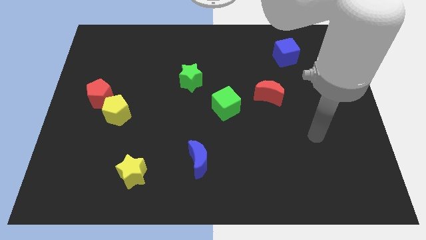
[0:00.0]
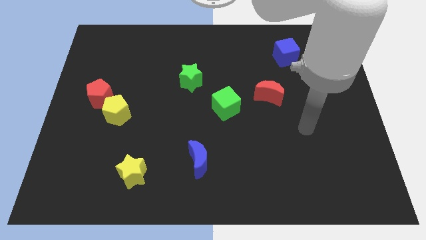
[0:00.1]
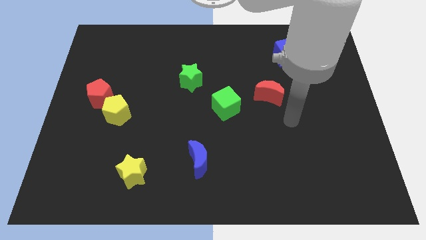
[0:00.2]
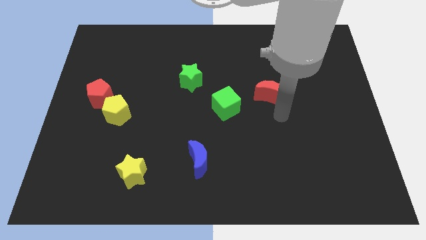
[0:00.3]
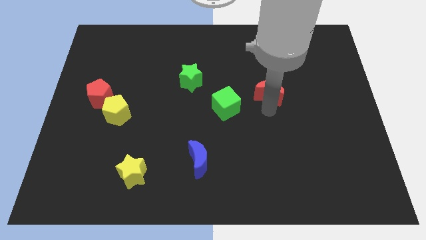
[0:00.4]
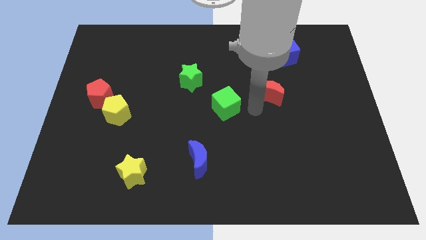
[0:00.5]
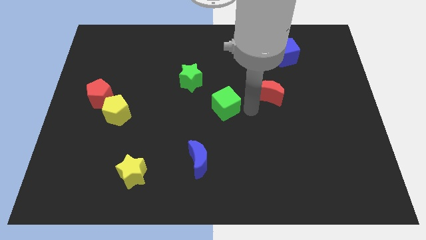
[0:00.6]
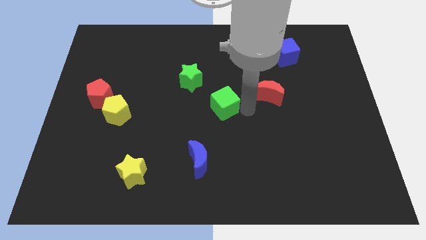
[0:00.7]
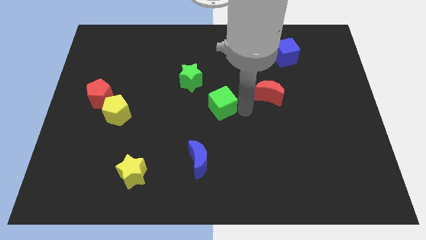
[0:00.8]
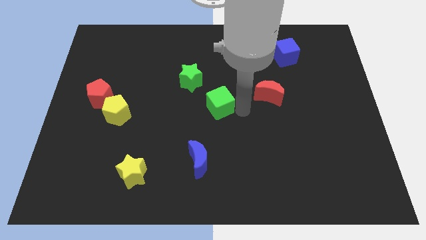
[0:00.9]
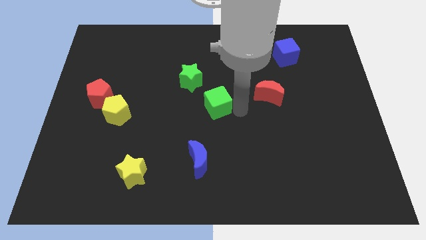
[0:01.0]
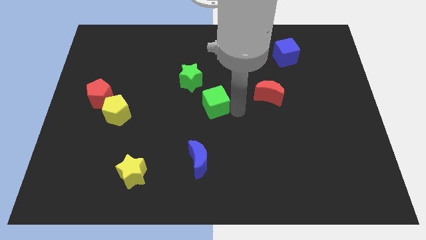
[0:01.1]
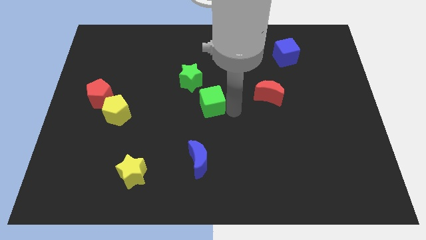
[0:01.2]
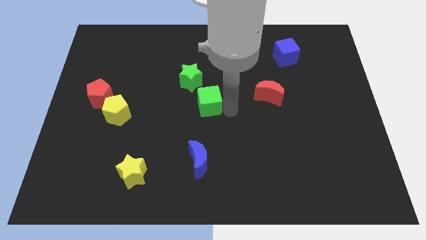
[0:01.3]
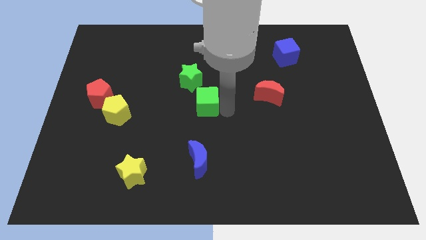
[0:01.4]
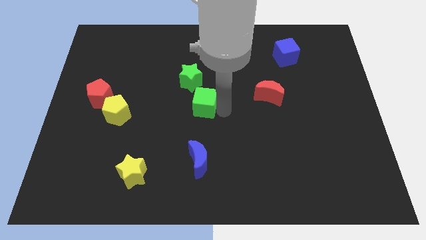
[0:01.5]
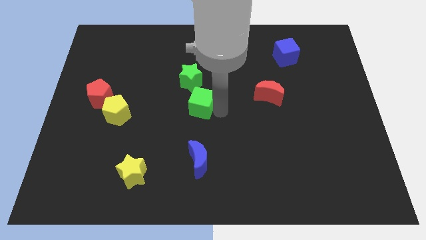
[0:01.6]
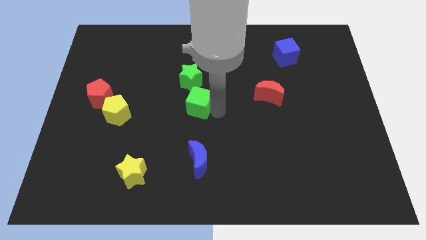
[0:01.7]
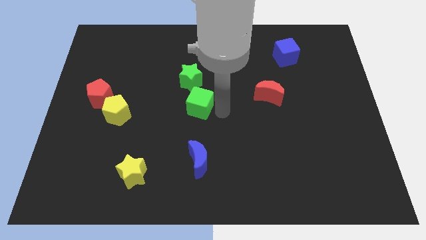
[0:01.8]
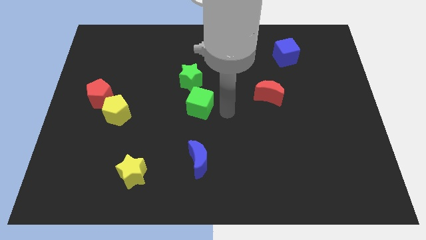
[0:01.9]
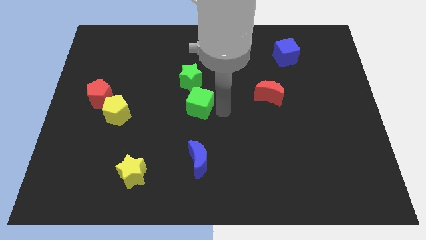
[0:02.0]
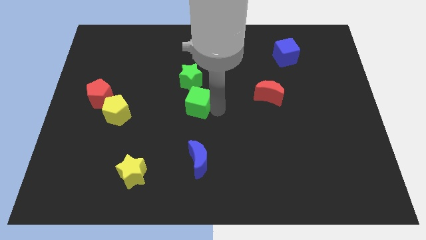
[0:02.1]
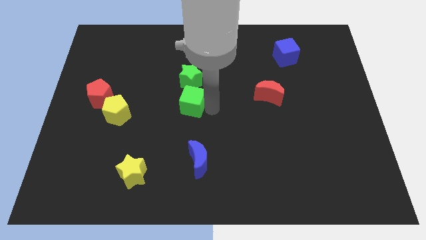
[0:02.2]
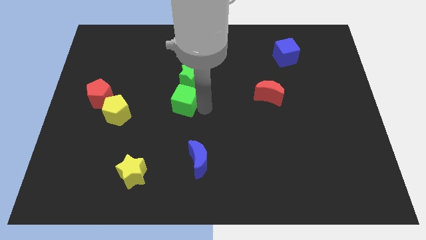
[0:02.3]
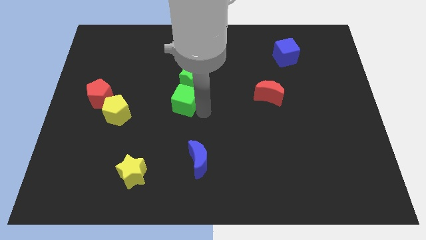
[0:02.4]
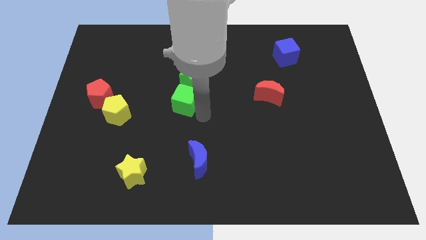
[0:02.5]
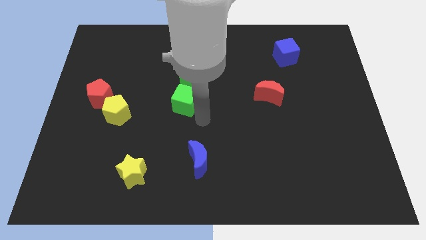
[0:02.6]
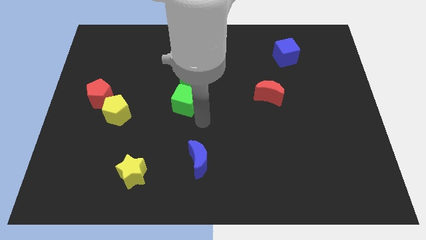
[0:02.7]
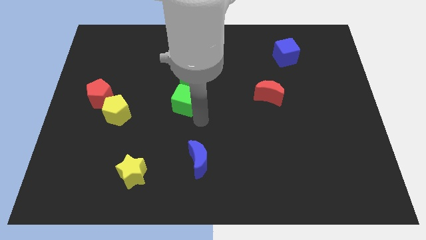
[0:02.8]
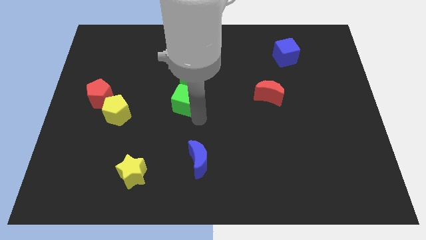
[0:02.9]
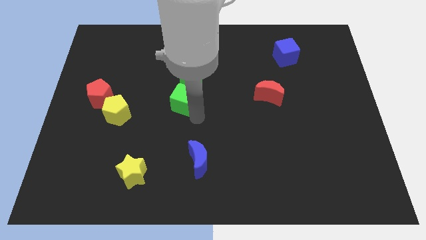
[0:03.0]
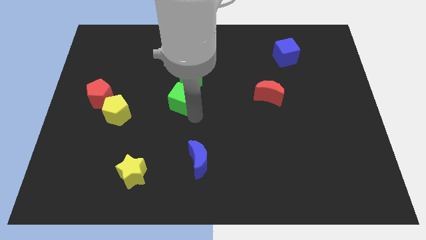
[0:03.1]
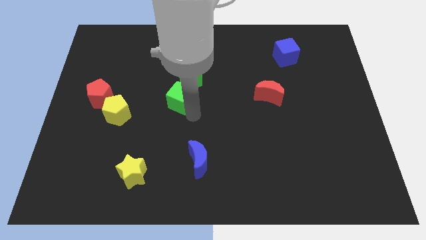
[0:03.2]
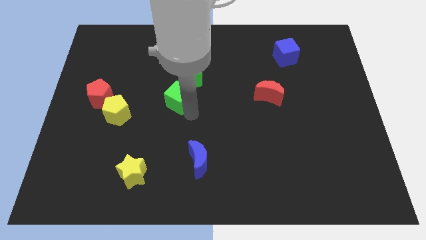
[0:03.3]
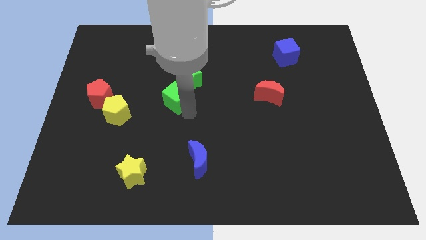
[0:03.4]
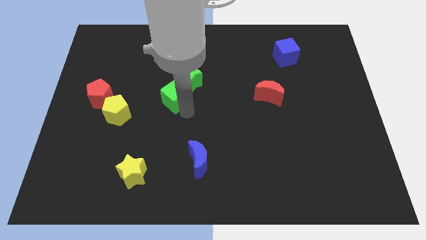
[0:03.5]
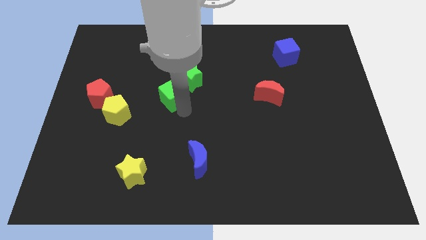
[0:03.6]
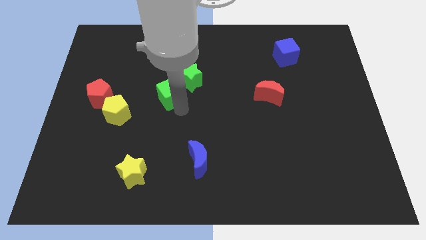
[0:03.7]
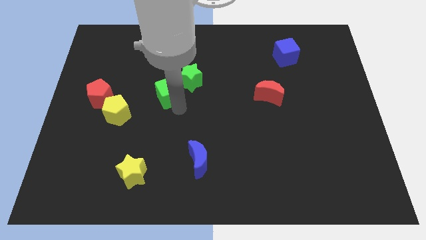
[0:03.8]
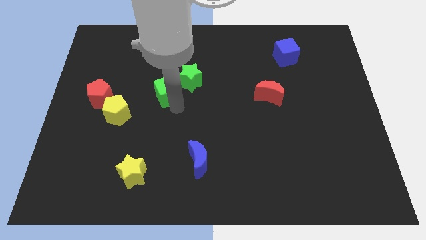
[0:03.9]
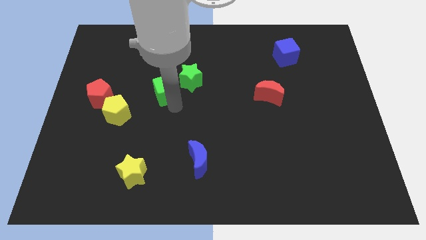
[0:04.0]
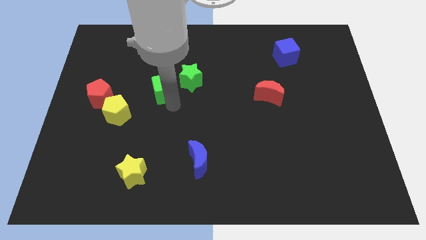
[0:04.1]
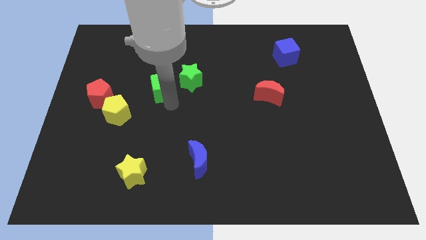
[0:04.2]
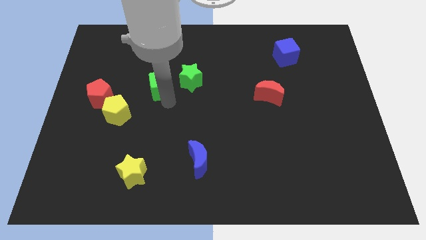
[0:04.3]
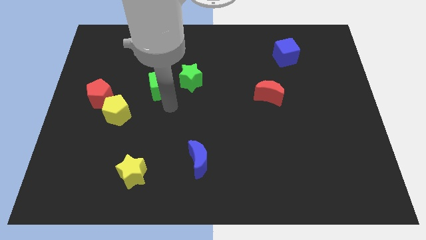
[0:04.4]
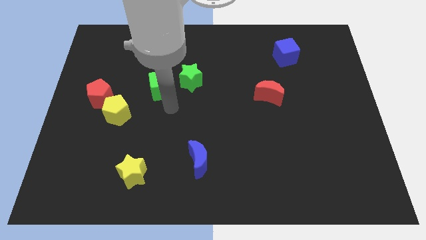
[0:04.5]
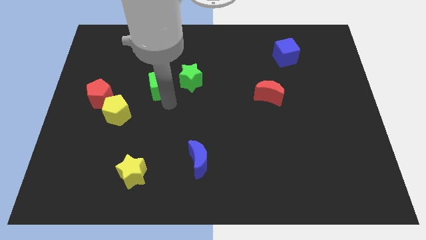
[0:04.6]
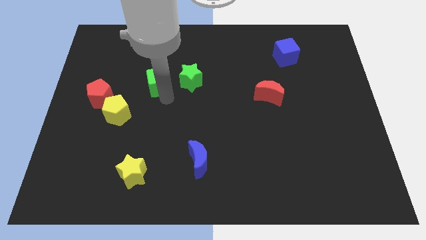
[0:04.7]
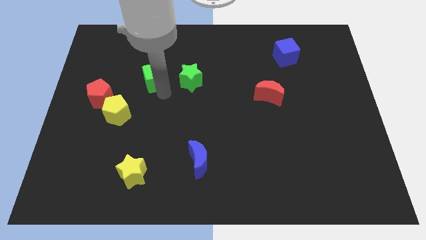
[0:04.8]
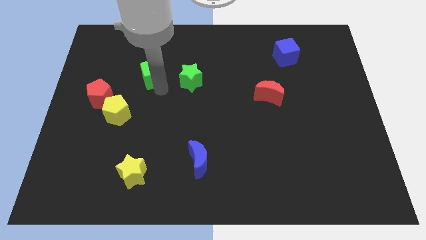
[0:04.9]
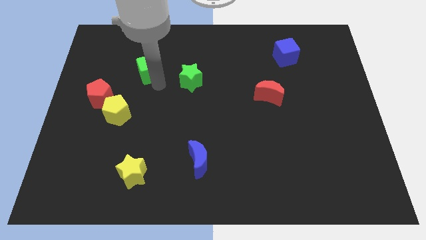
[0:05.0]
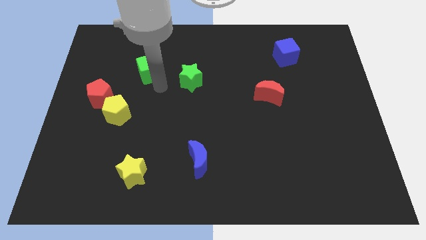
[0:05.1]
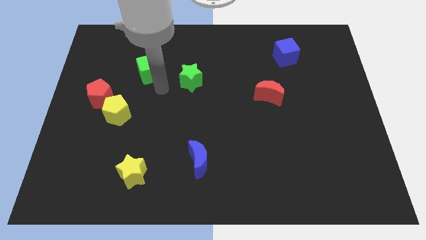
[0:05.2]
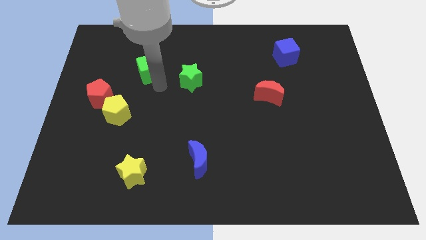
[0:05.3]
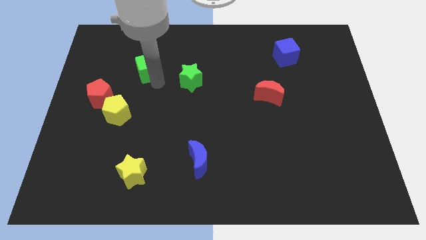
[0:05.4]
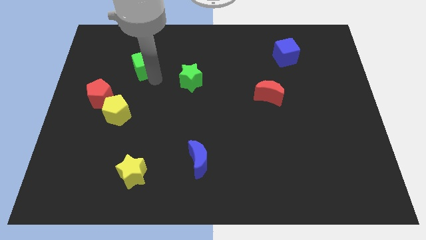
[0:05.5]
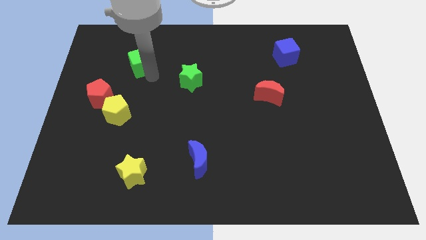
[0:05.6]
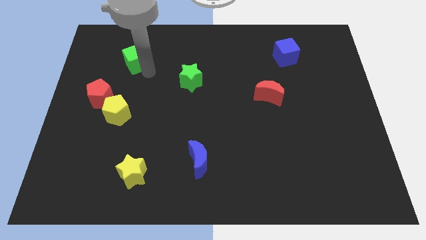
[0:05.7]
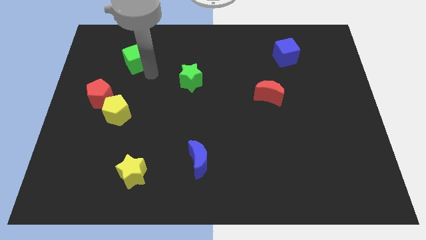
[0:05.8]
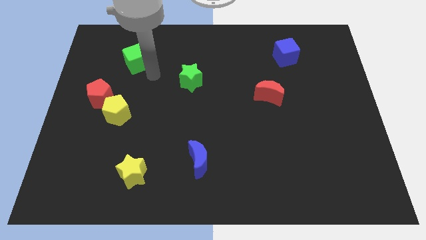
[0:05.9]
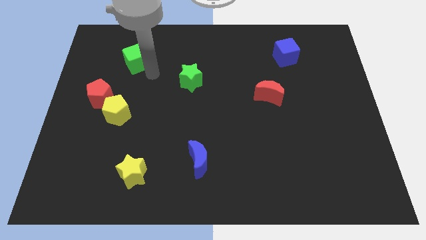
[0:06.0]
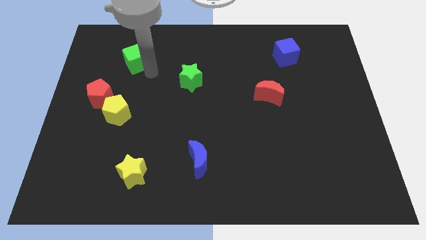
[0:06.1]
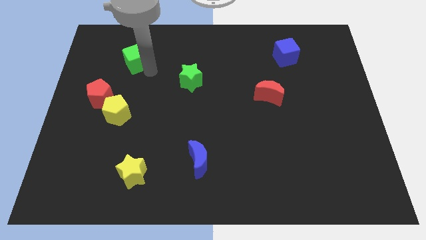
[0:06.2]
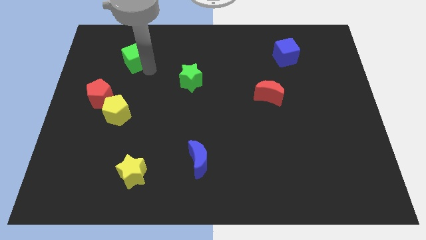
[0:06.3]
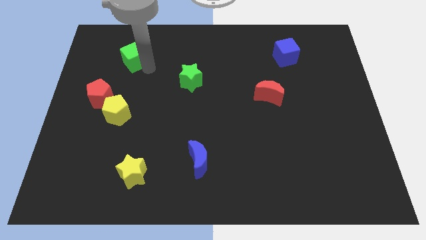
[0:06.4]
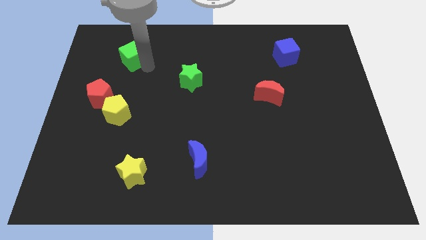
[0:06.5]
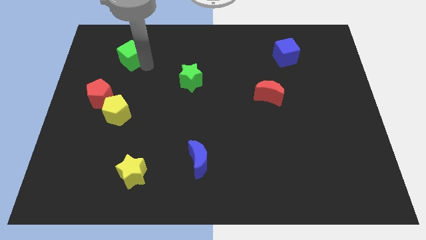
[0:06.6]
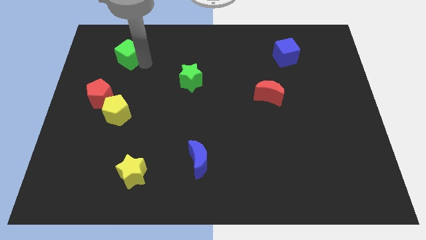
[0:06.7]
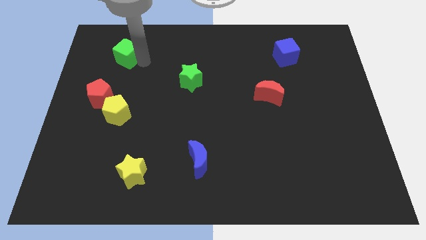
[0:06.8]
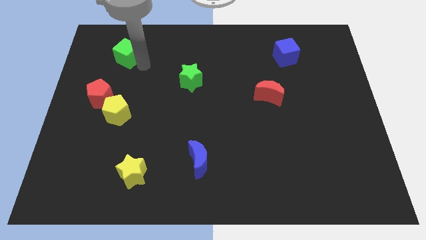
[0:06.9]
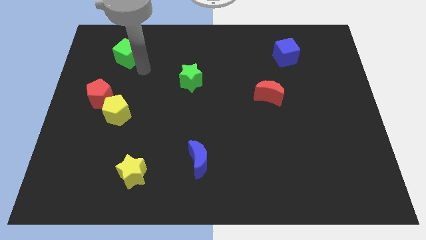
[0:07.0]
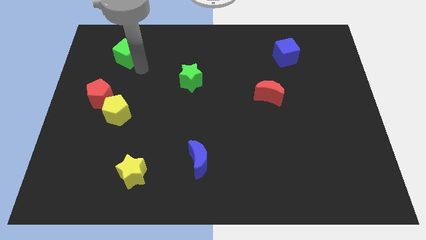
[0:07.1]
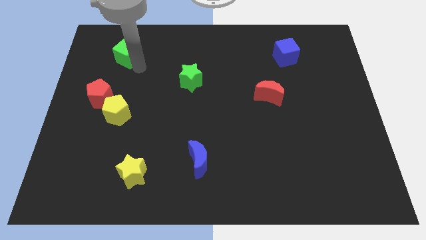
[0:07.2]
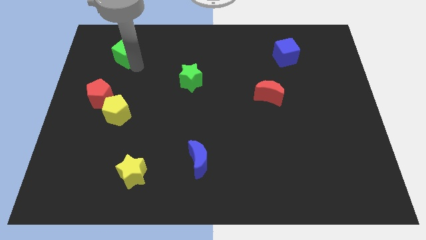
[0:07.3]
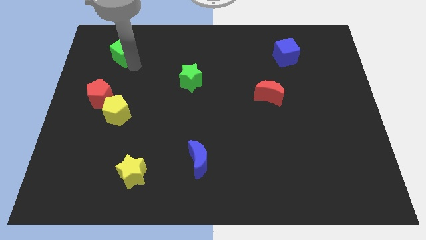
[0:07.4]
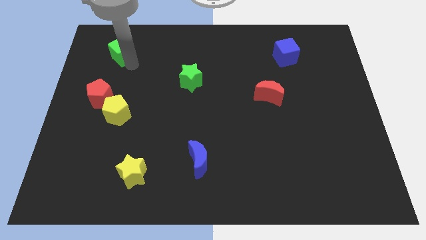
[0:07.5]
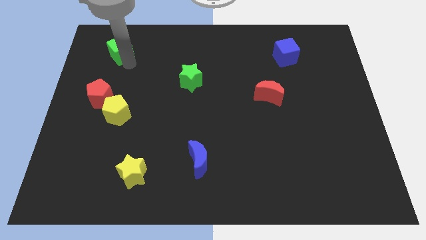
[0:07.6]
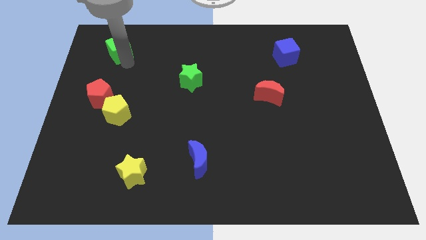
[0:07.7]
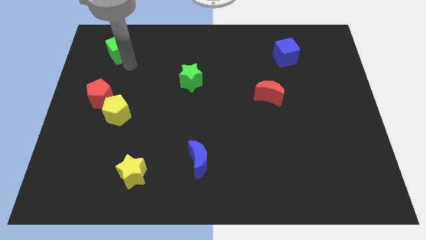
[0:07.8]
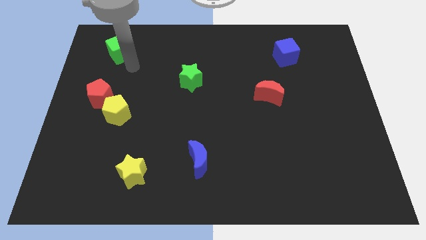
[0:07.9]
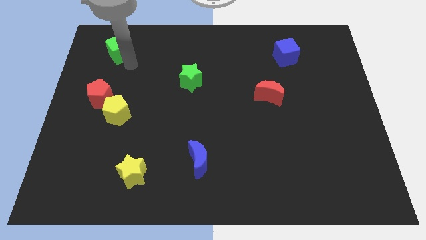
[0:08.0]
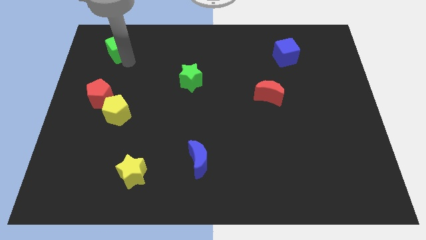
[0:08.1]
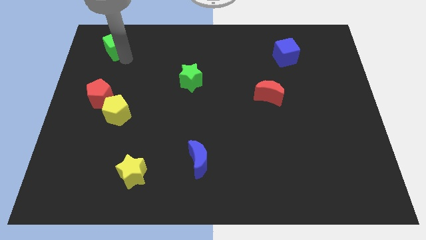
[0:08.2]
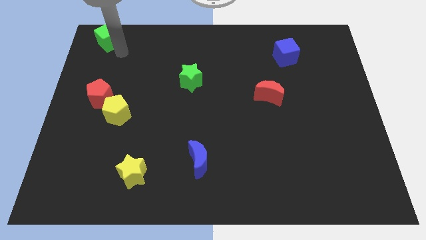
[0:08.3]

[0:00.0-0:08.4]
move the green cube to the top left of the board
